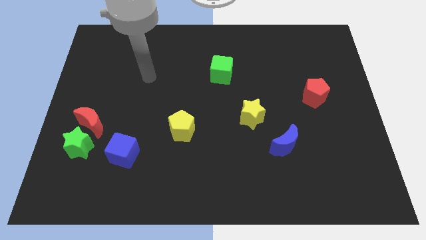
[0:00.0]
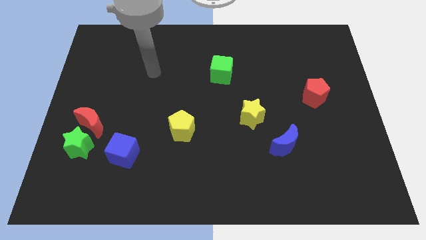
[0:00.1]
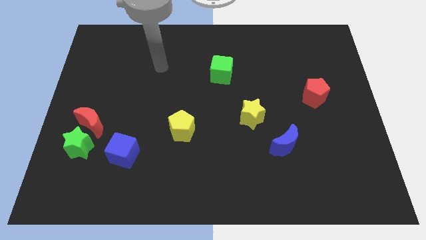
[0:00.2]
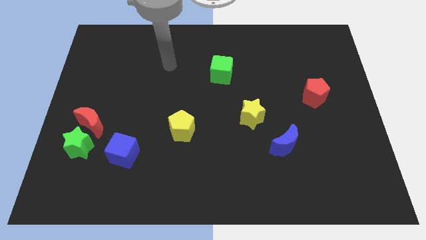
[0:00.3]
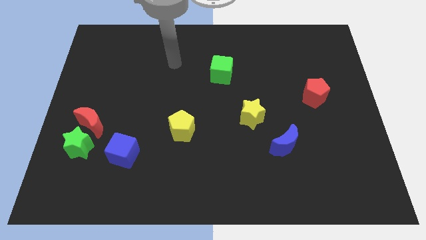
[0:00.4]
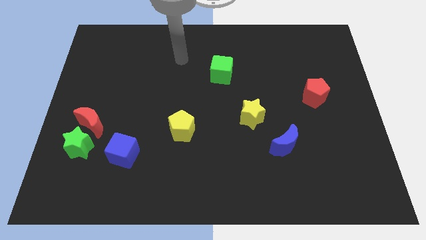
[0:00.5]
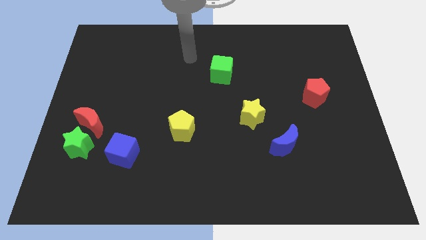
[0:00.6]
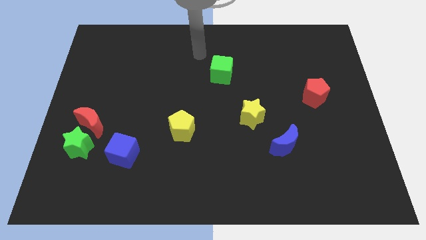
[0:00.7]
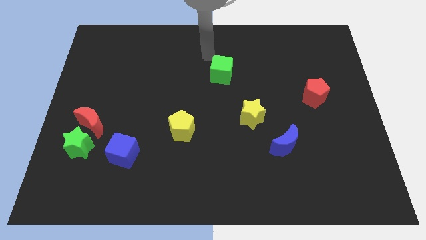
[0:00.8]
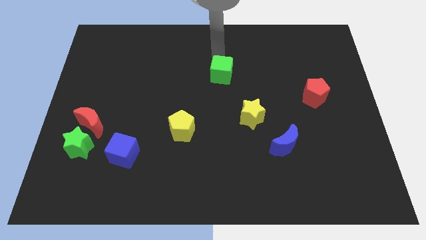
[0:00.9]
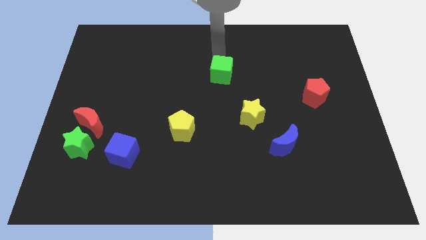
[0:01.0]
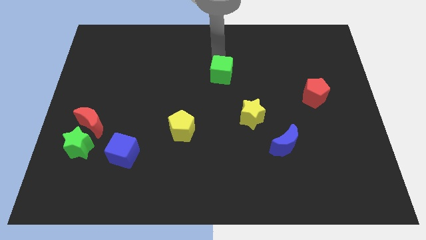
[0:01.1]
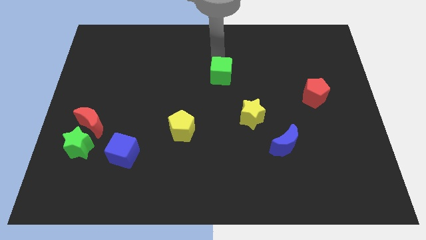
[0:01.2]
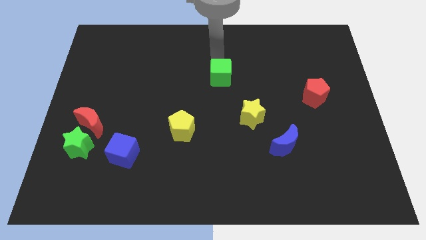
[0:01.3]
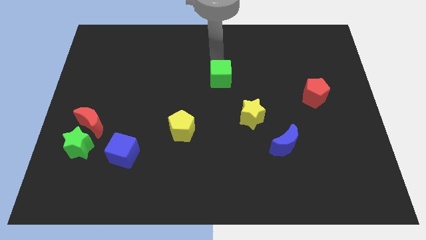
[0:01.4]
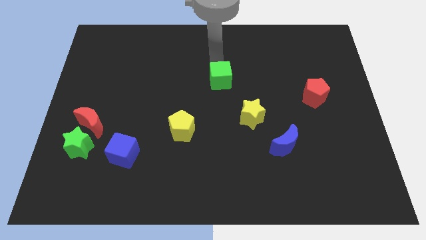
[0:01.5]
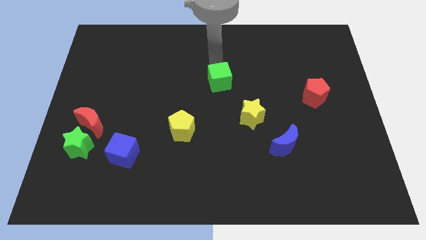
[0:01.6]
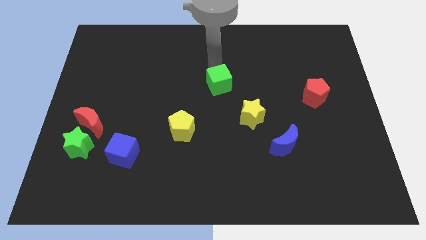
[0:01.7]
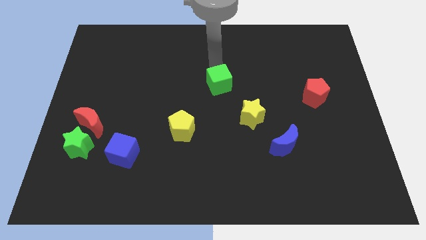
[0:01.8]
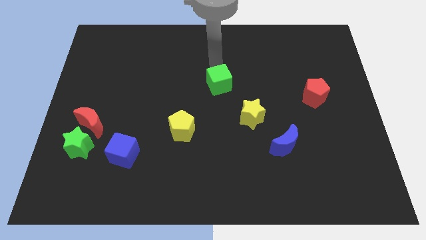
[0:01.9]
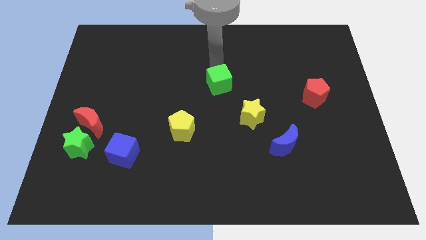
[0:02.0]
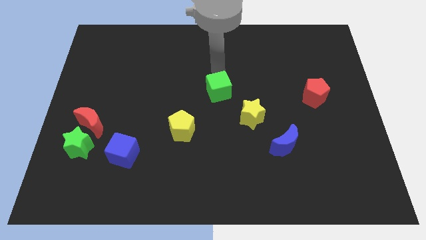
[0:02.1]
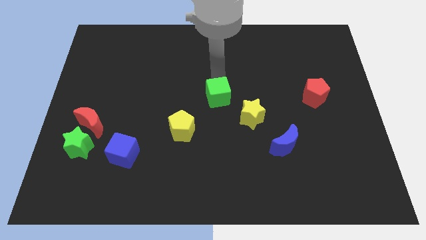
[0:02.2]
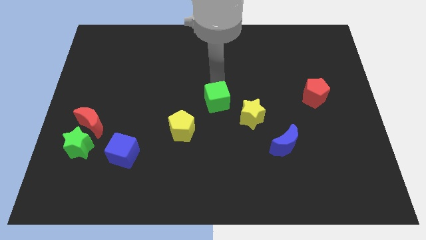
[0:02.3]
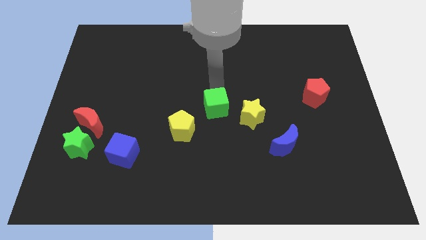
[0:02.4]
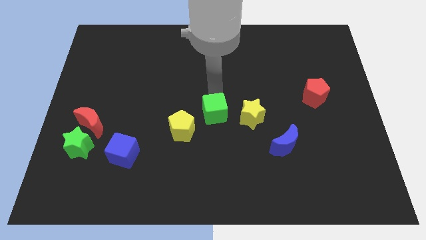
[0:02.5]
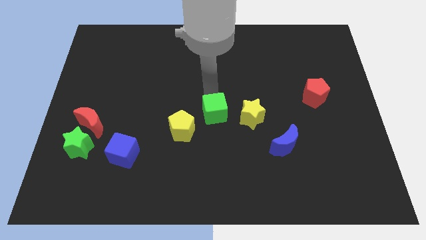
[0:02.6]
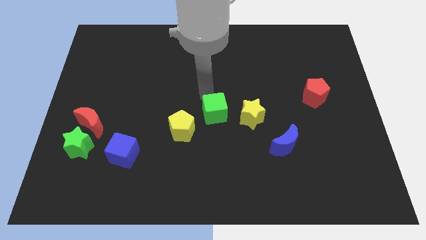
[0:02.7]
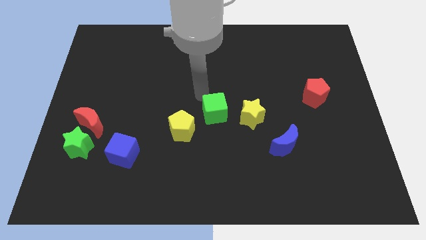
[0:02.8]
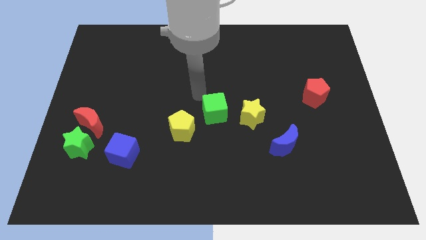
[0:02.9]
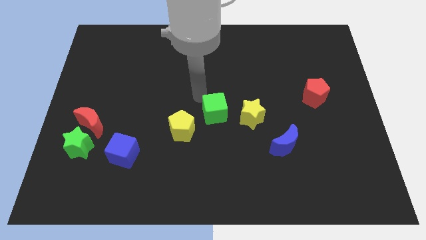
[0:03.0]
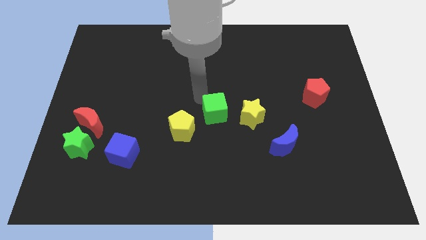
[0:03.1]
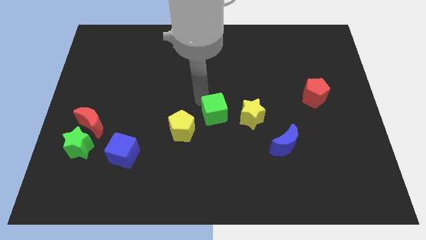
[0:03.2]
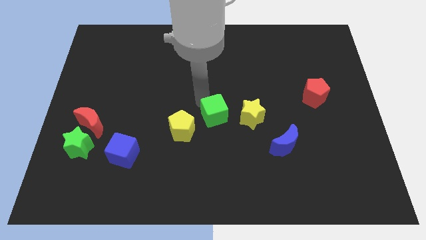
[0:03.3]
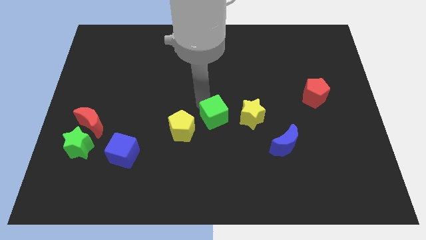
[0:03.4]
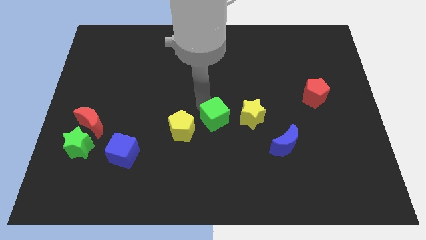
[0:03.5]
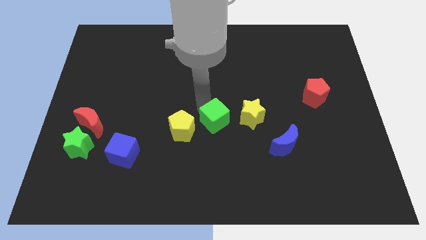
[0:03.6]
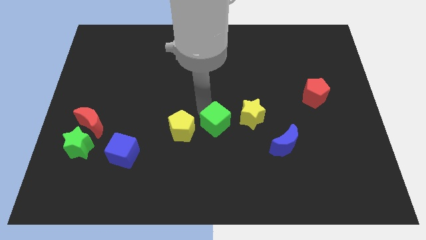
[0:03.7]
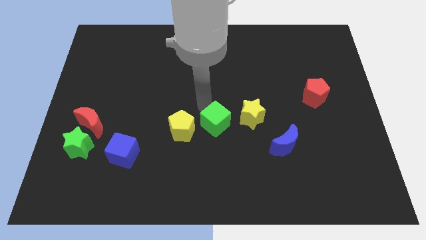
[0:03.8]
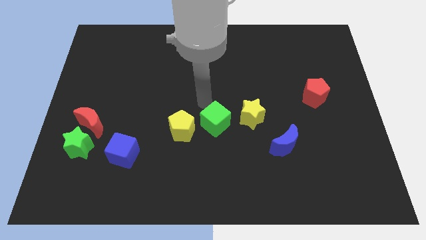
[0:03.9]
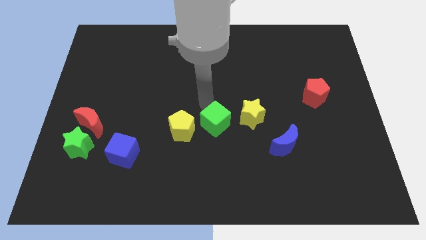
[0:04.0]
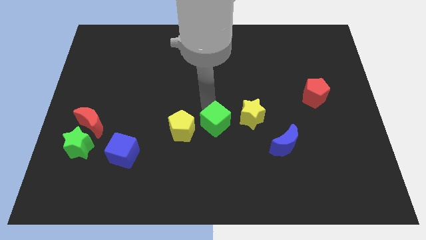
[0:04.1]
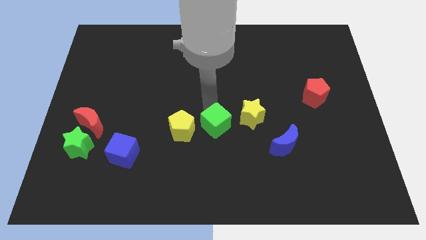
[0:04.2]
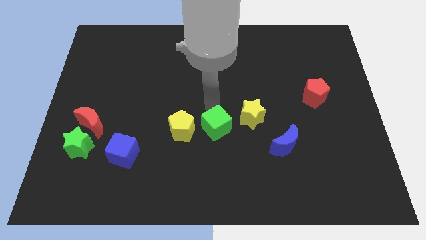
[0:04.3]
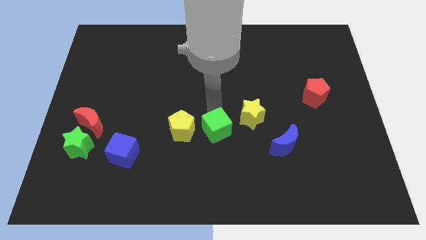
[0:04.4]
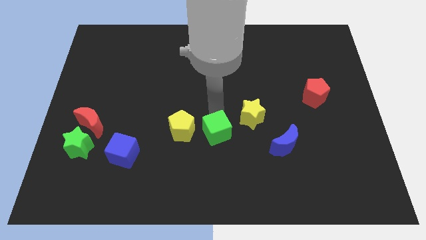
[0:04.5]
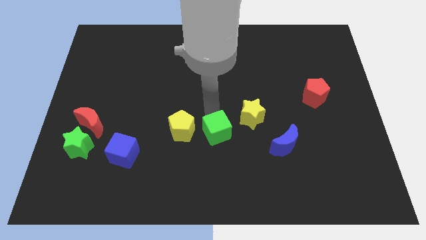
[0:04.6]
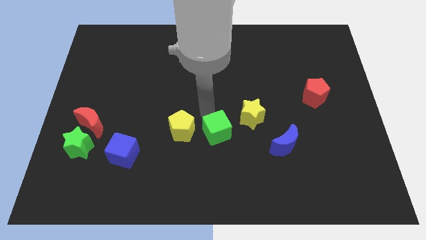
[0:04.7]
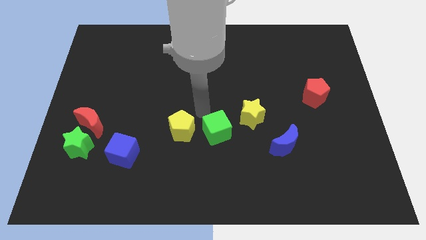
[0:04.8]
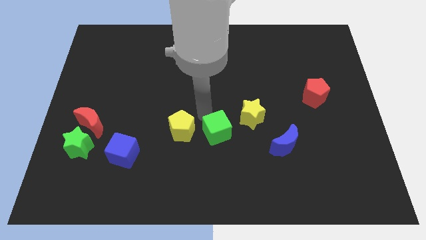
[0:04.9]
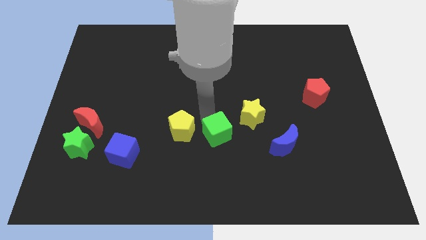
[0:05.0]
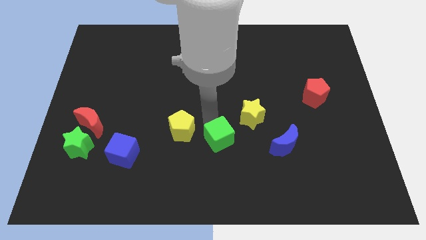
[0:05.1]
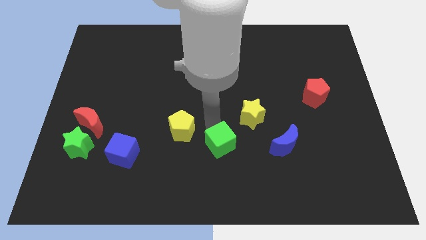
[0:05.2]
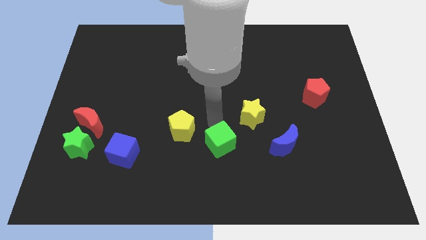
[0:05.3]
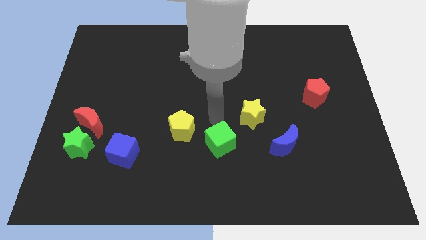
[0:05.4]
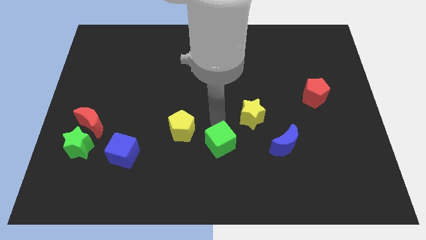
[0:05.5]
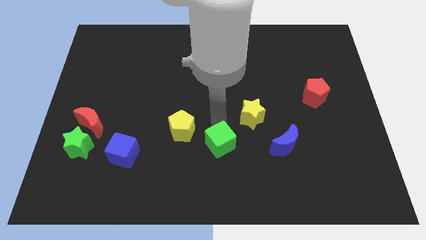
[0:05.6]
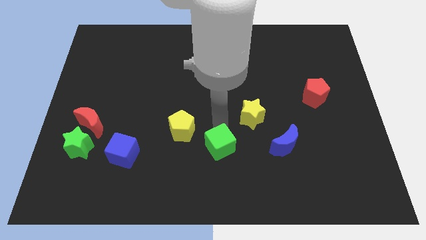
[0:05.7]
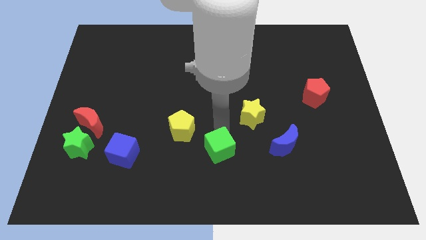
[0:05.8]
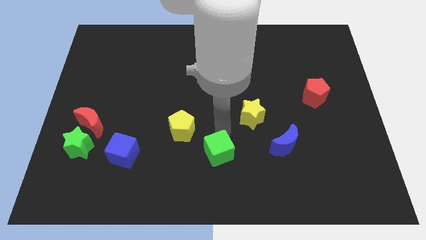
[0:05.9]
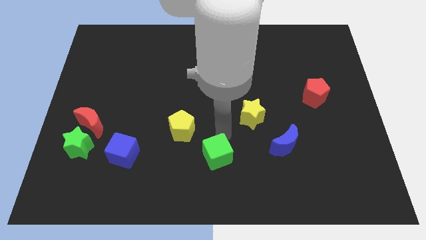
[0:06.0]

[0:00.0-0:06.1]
move the green cube to the bottom

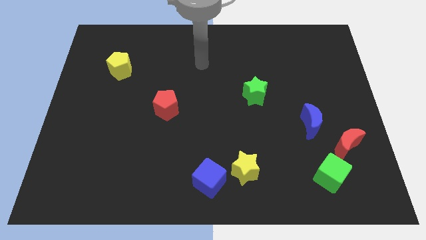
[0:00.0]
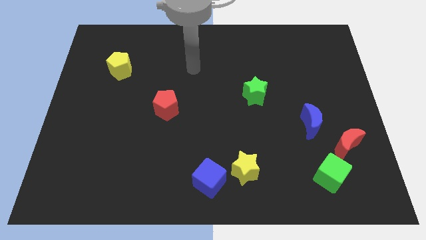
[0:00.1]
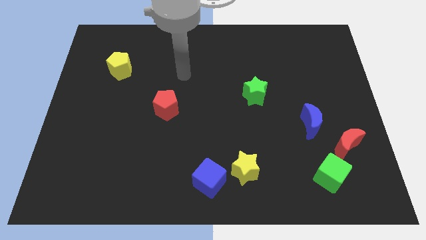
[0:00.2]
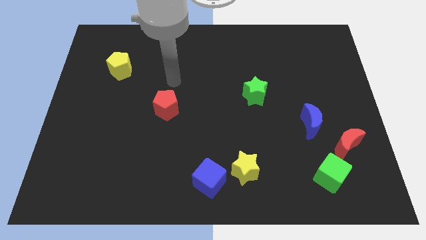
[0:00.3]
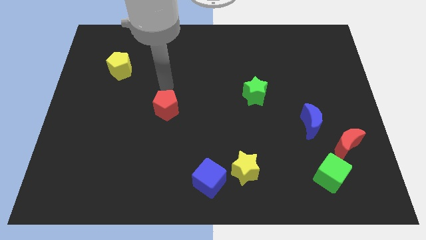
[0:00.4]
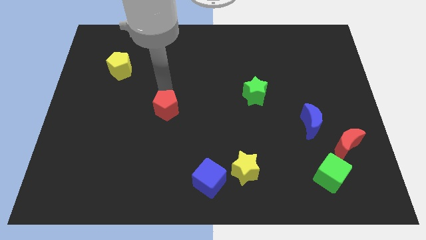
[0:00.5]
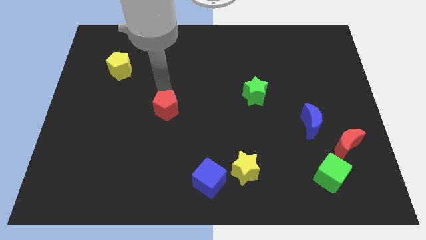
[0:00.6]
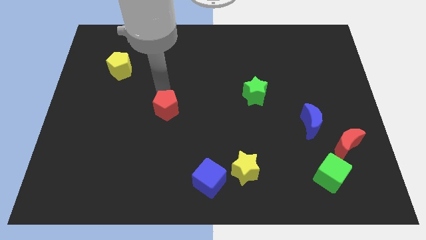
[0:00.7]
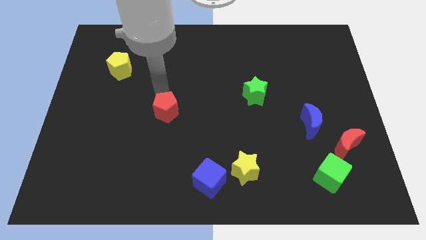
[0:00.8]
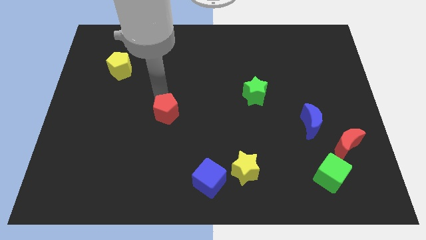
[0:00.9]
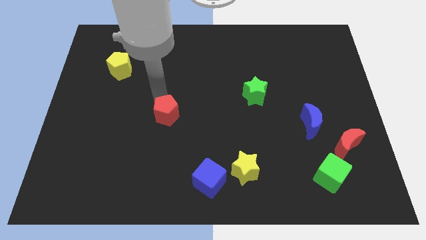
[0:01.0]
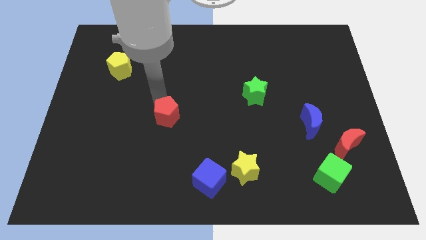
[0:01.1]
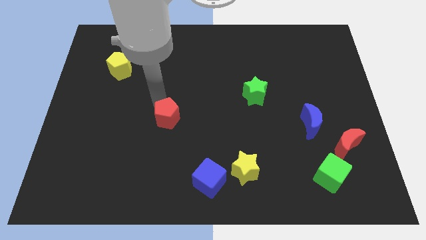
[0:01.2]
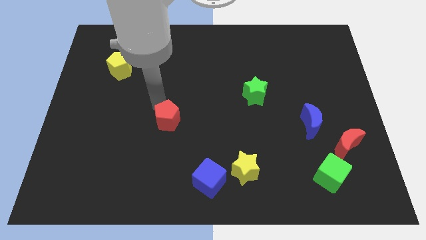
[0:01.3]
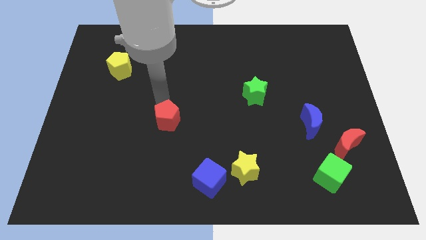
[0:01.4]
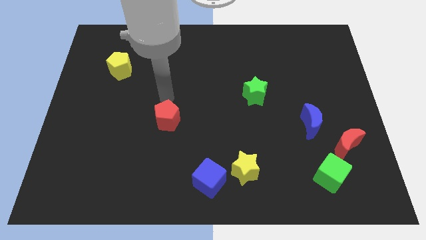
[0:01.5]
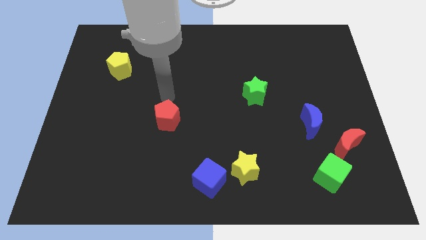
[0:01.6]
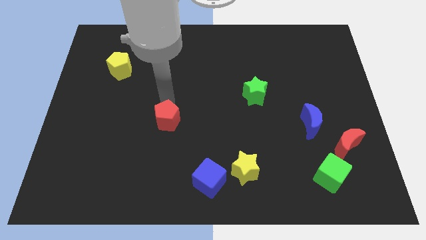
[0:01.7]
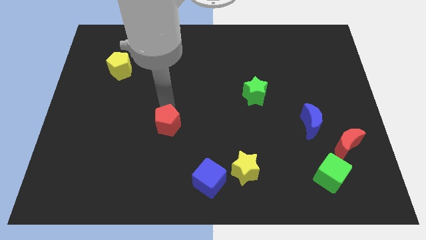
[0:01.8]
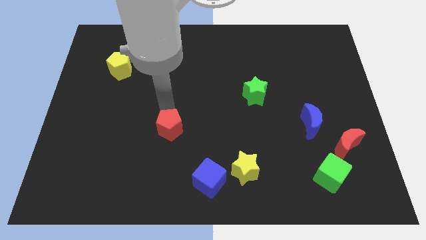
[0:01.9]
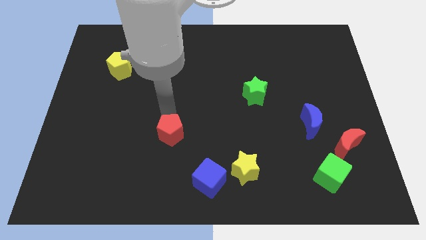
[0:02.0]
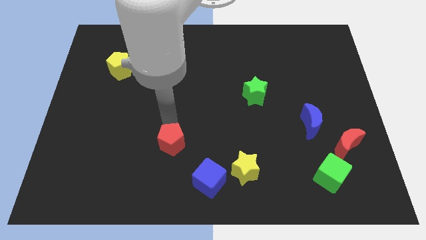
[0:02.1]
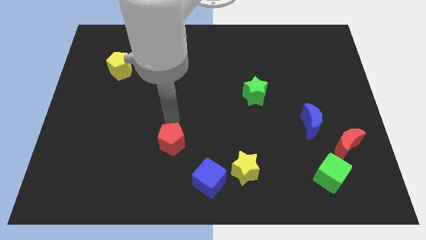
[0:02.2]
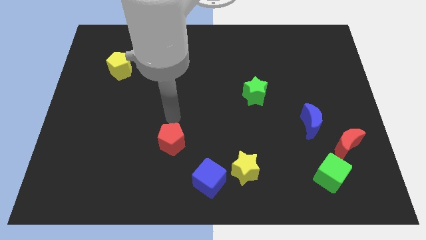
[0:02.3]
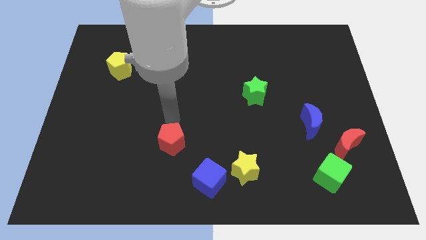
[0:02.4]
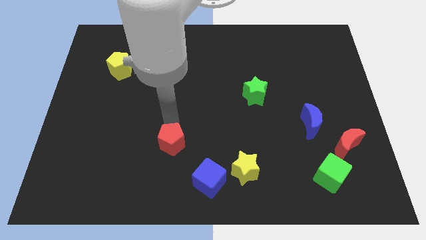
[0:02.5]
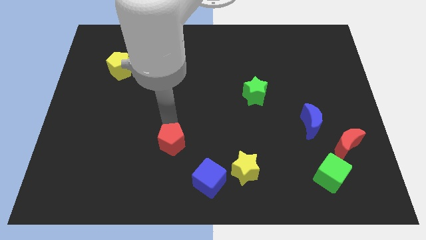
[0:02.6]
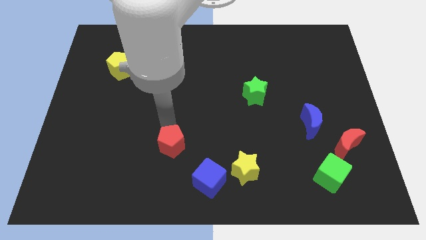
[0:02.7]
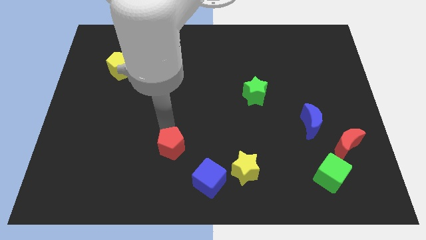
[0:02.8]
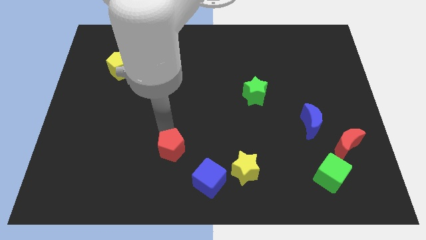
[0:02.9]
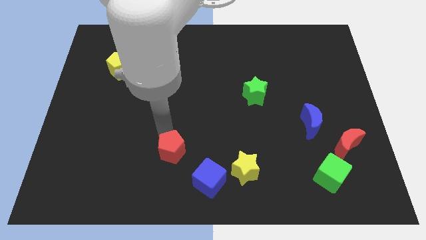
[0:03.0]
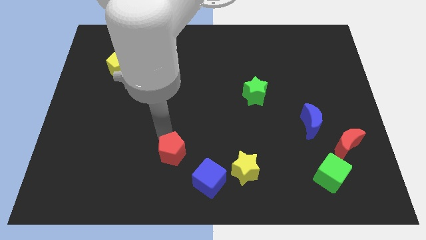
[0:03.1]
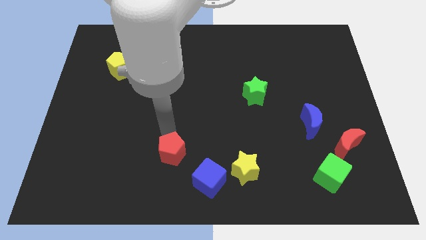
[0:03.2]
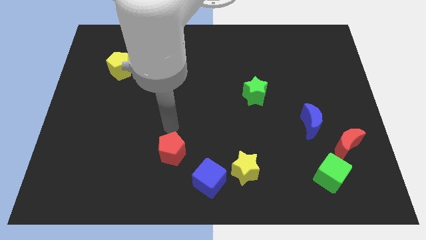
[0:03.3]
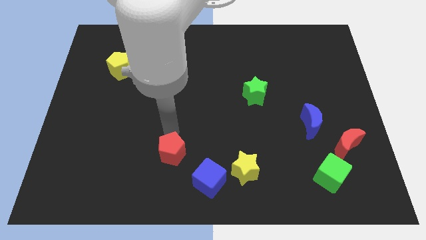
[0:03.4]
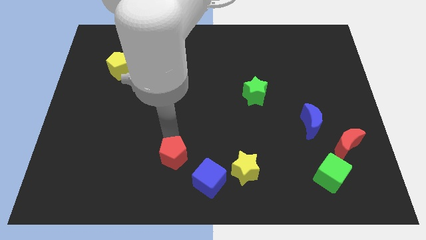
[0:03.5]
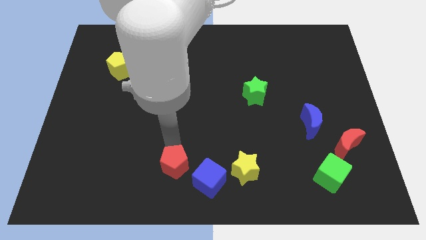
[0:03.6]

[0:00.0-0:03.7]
move the red pentagon to the bottom side
